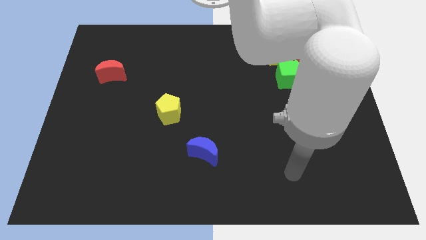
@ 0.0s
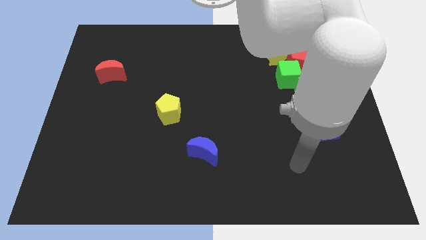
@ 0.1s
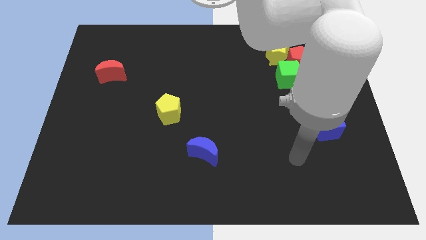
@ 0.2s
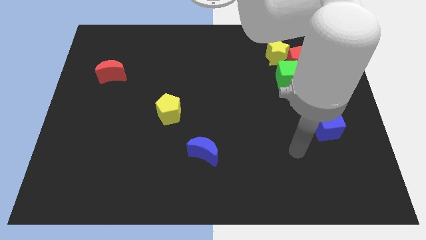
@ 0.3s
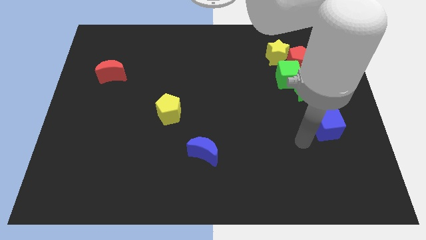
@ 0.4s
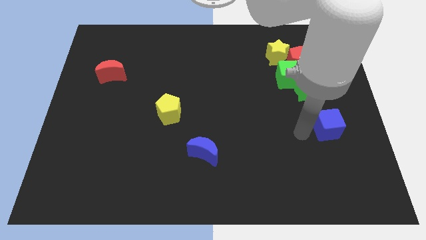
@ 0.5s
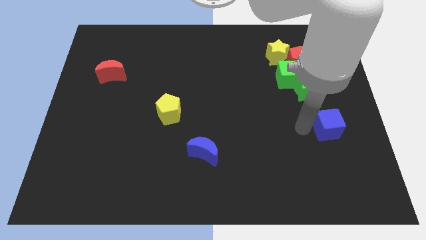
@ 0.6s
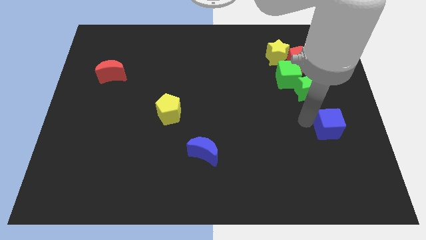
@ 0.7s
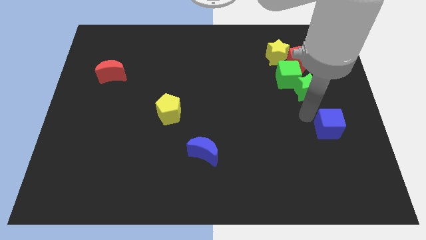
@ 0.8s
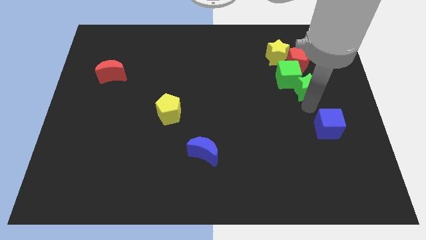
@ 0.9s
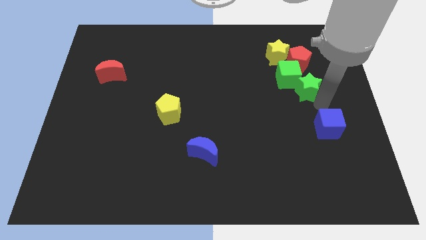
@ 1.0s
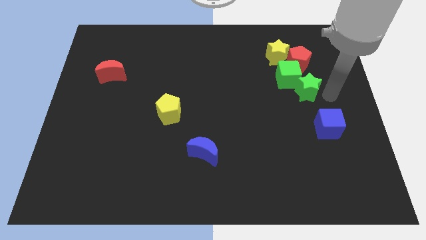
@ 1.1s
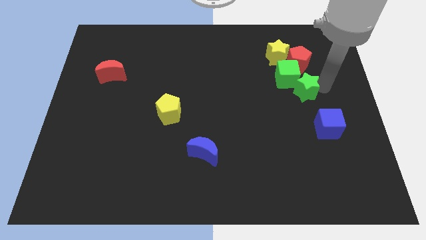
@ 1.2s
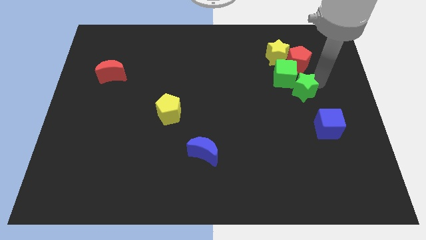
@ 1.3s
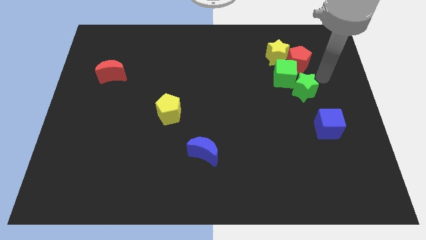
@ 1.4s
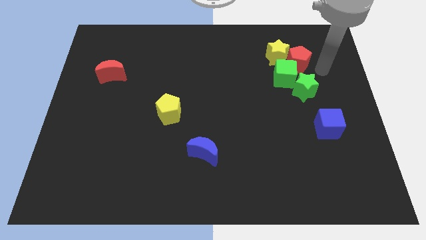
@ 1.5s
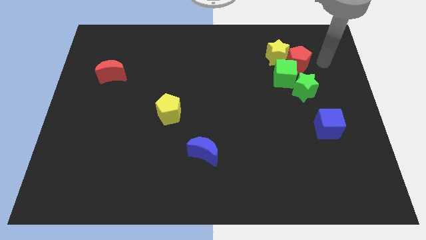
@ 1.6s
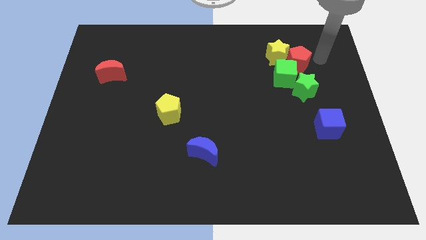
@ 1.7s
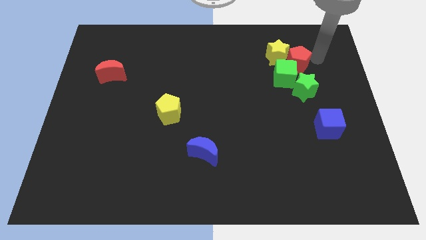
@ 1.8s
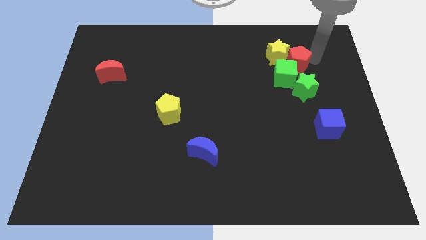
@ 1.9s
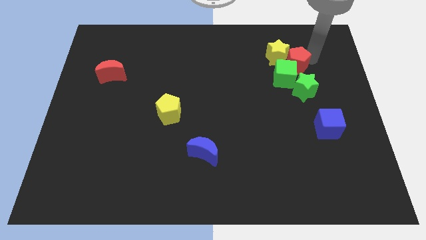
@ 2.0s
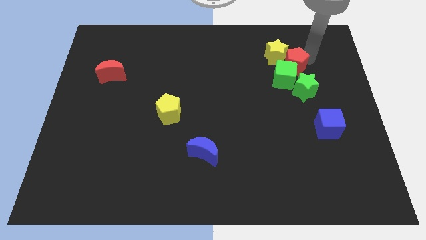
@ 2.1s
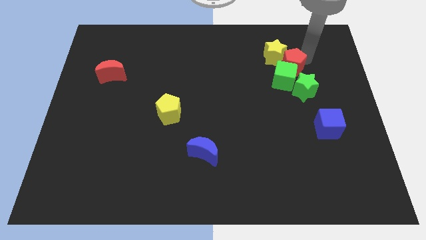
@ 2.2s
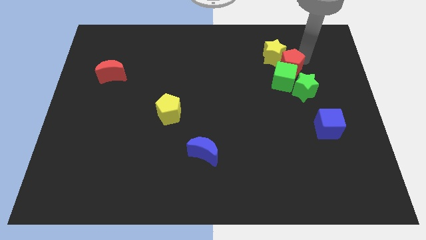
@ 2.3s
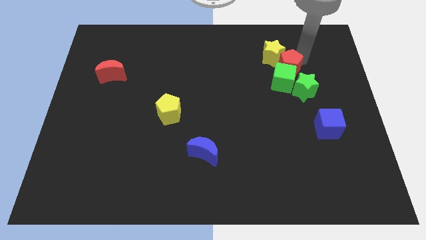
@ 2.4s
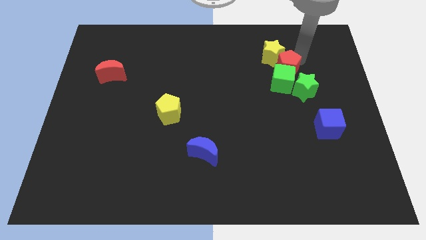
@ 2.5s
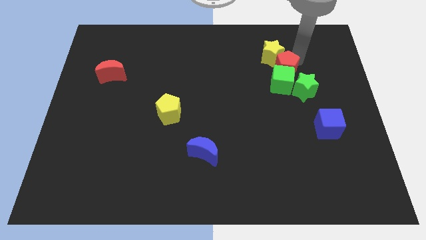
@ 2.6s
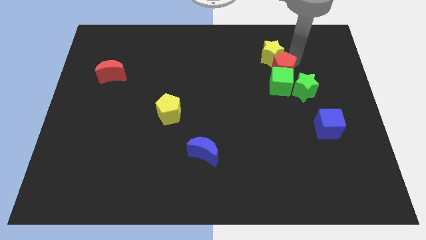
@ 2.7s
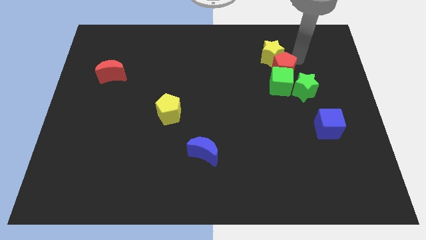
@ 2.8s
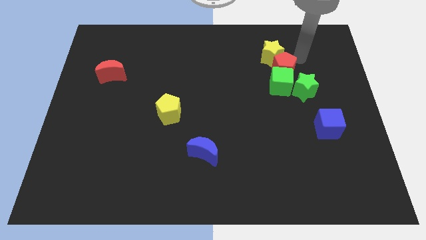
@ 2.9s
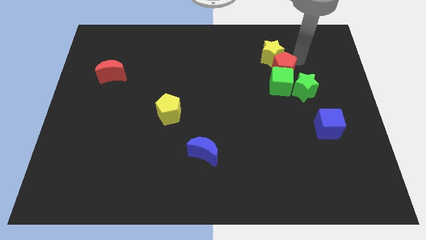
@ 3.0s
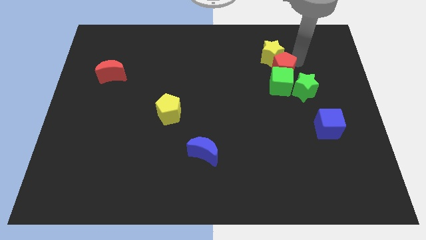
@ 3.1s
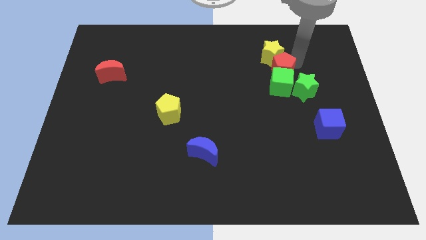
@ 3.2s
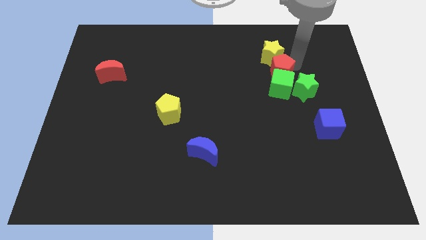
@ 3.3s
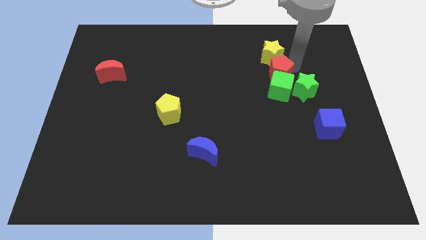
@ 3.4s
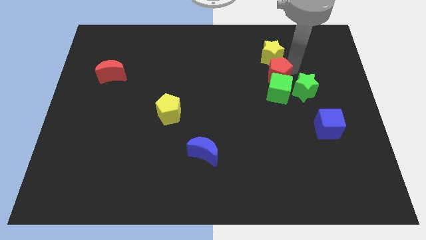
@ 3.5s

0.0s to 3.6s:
push the red pentagon somewhat down and left diagonally

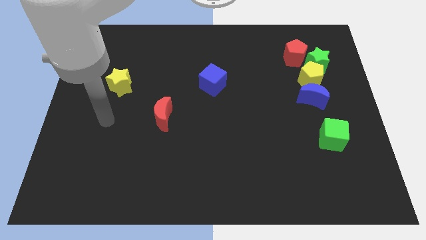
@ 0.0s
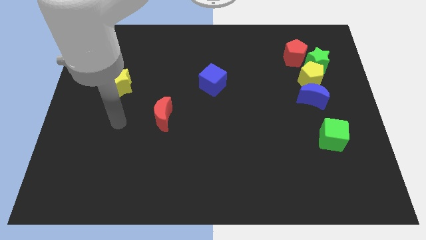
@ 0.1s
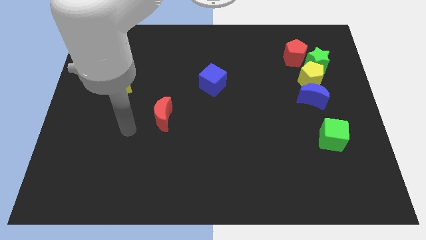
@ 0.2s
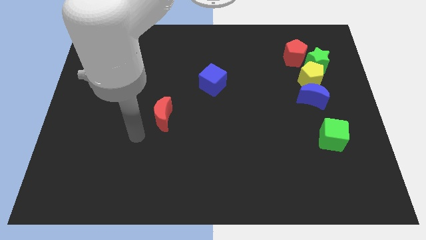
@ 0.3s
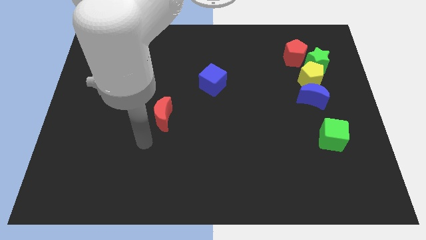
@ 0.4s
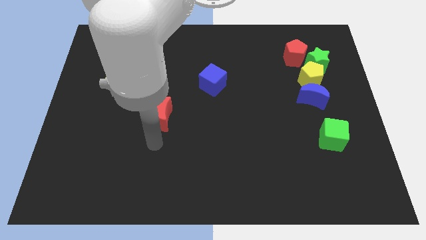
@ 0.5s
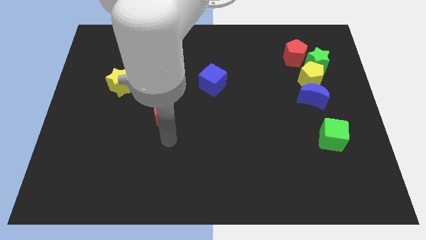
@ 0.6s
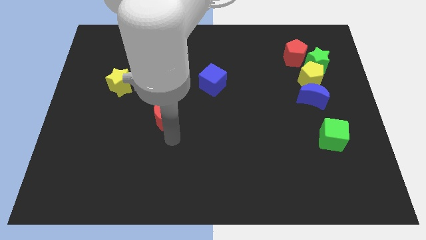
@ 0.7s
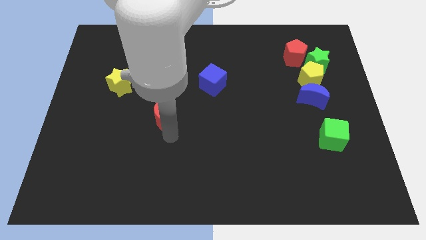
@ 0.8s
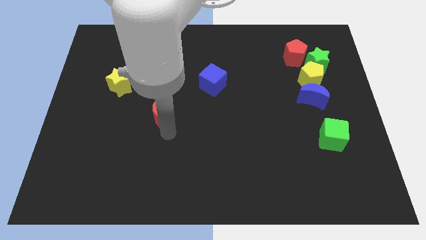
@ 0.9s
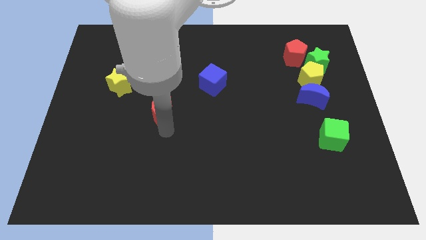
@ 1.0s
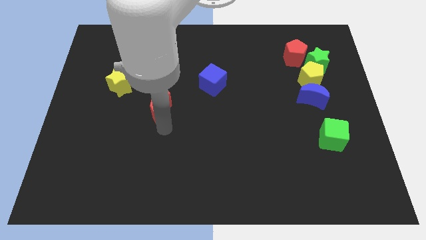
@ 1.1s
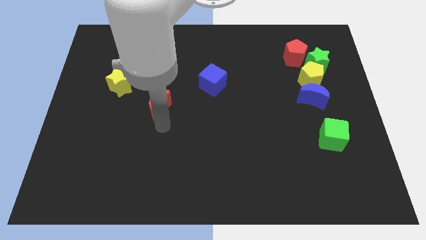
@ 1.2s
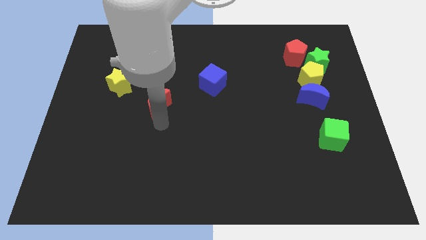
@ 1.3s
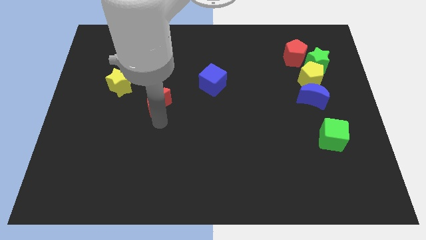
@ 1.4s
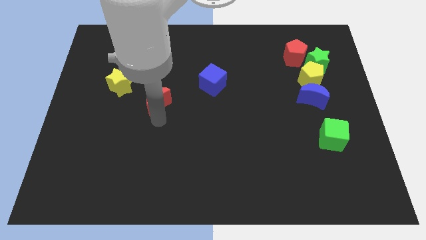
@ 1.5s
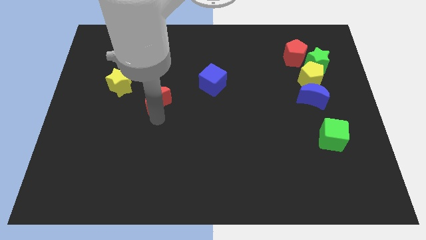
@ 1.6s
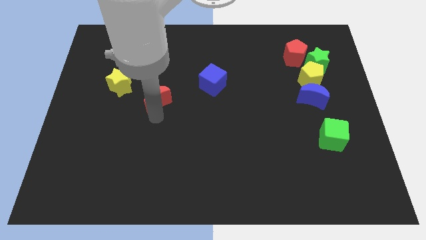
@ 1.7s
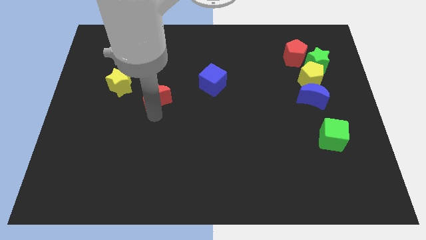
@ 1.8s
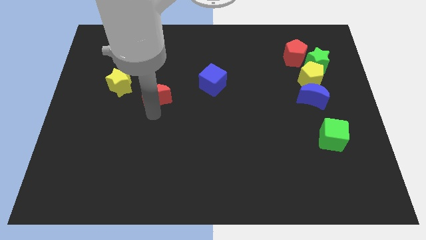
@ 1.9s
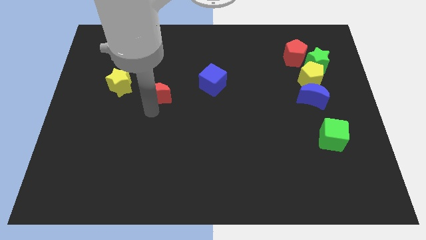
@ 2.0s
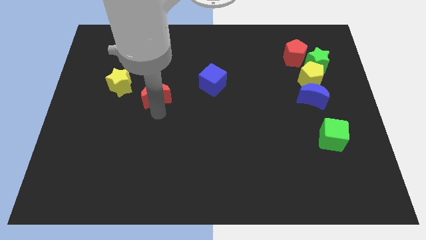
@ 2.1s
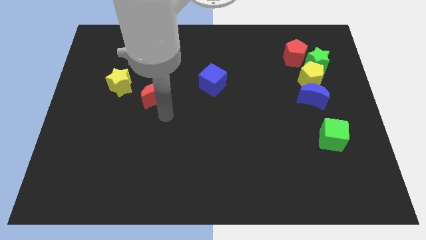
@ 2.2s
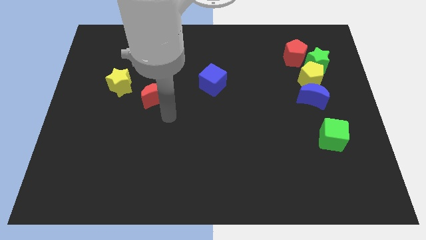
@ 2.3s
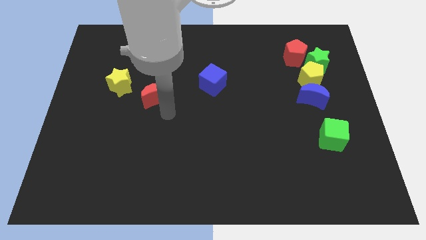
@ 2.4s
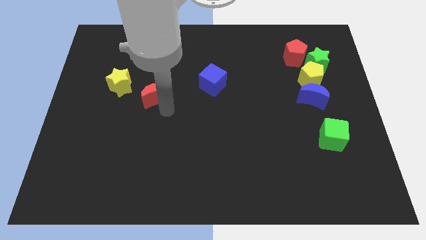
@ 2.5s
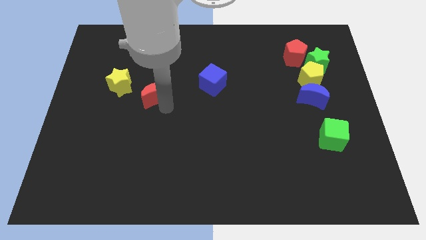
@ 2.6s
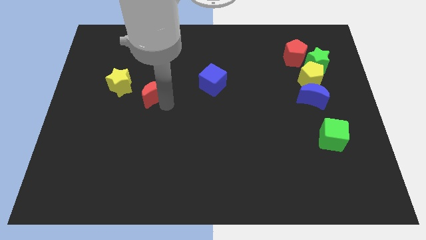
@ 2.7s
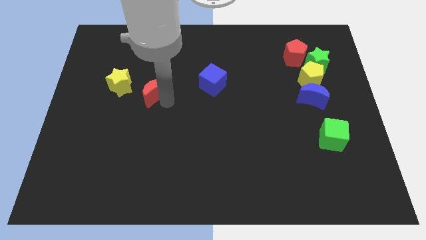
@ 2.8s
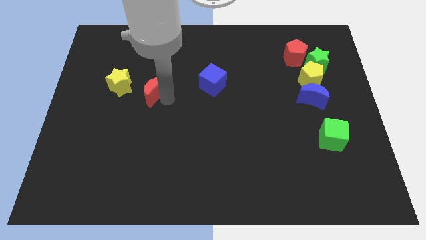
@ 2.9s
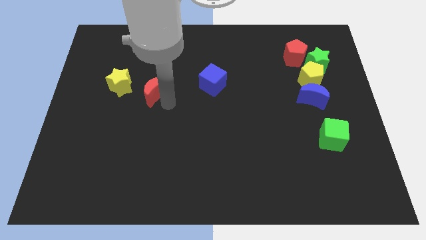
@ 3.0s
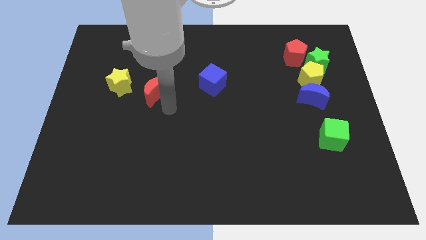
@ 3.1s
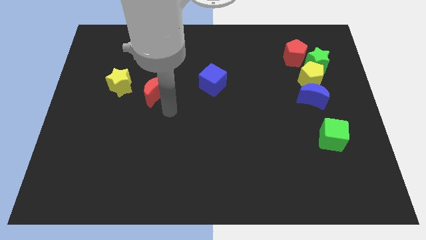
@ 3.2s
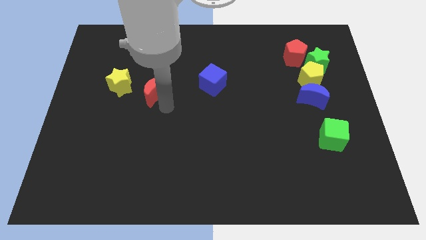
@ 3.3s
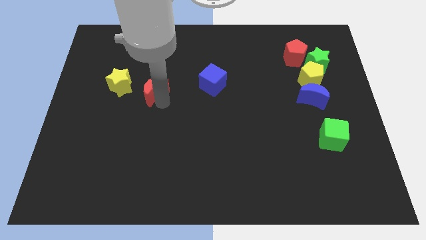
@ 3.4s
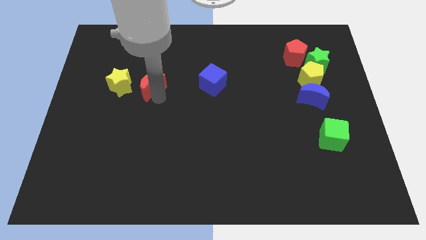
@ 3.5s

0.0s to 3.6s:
slide the red moon upwards and to the left diagonally a bit

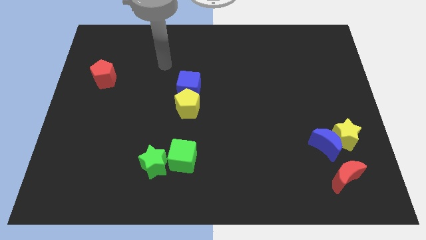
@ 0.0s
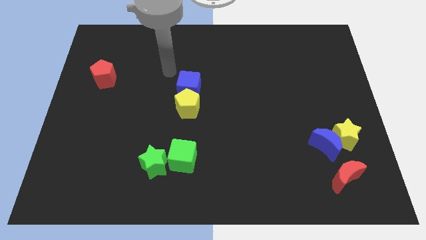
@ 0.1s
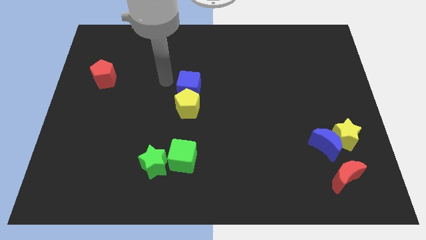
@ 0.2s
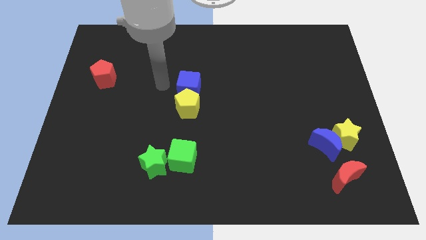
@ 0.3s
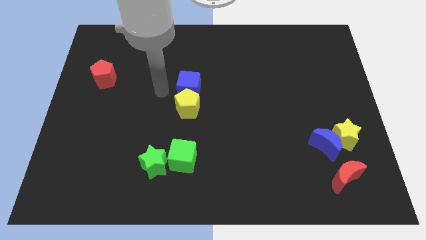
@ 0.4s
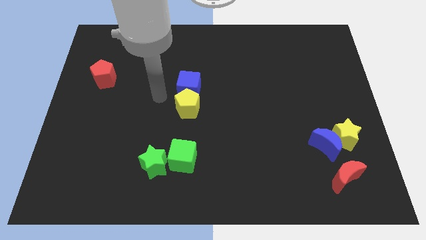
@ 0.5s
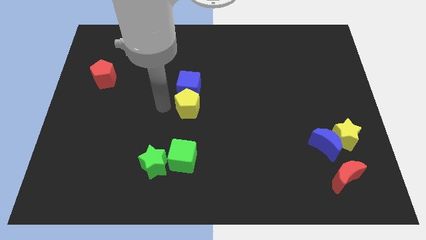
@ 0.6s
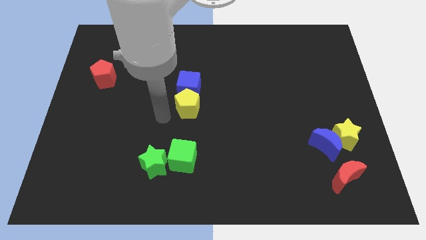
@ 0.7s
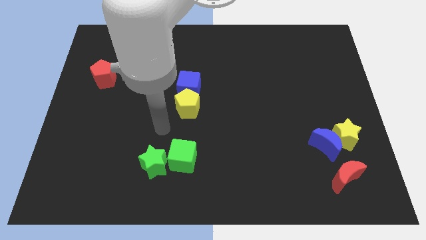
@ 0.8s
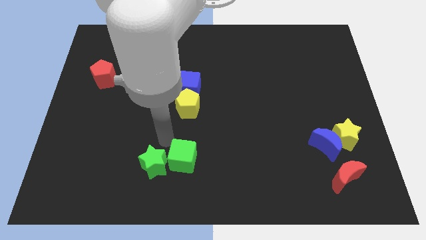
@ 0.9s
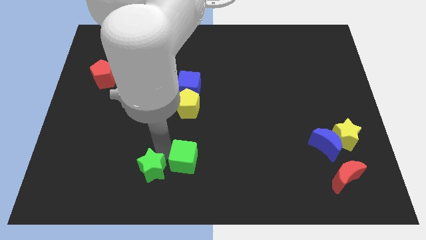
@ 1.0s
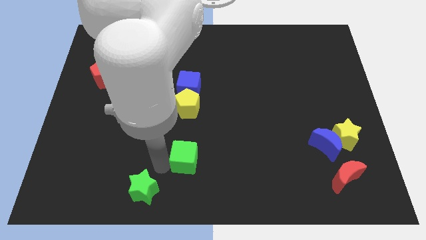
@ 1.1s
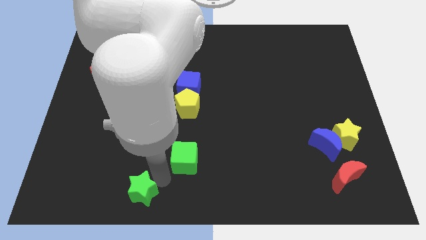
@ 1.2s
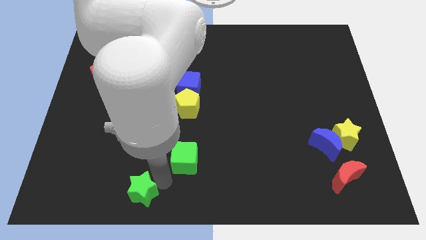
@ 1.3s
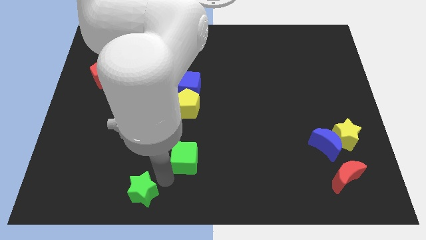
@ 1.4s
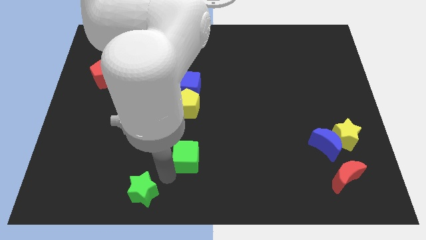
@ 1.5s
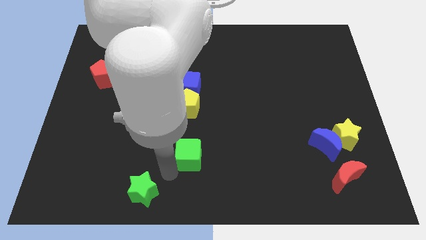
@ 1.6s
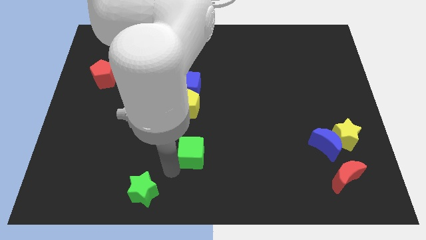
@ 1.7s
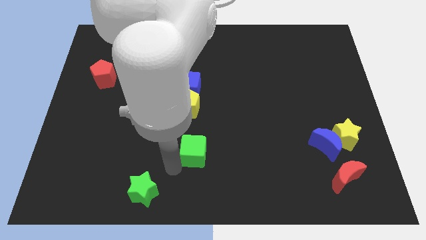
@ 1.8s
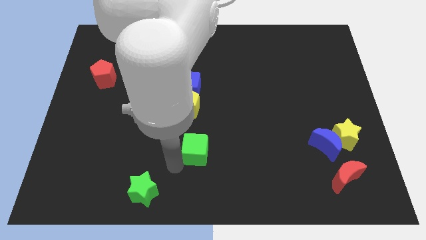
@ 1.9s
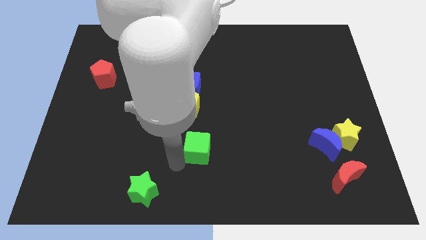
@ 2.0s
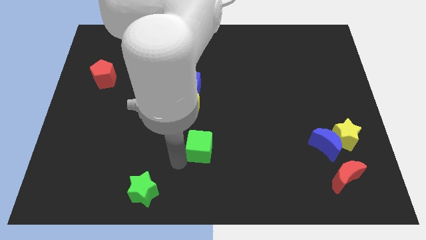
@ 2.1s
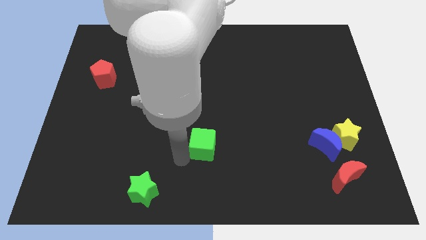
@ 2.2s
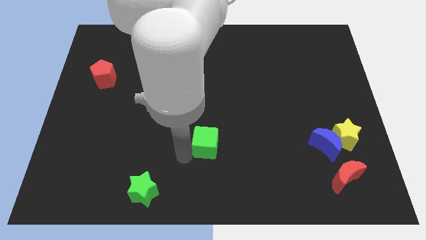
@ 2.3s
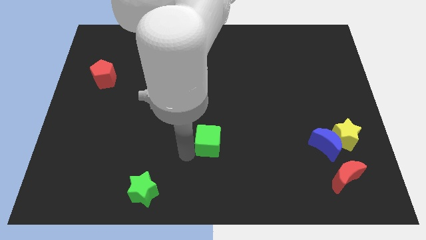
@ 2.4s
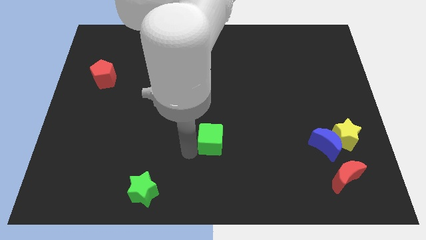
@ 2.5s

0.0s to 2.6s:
slightly slide the green cube up and to the right
